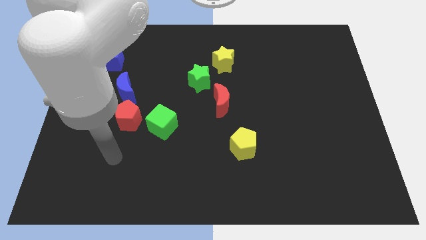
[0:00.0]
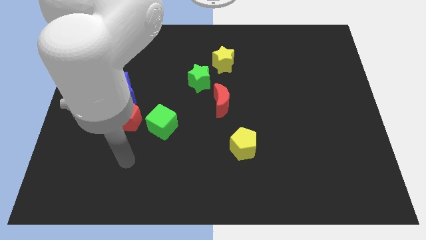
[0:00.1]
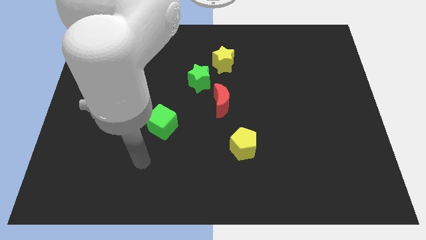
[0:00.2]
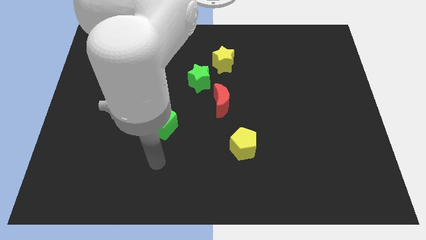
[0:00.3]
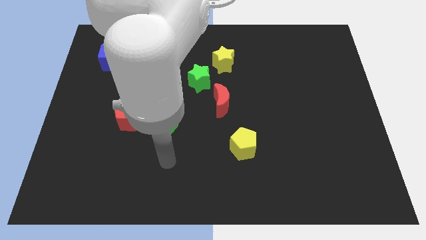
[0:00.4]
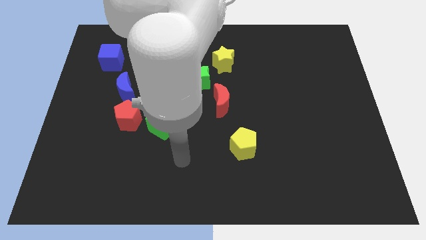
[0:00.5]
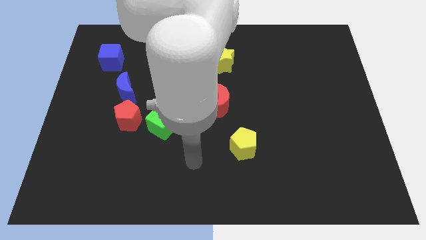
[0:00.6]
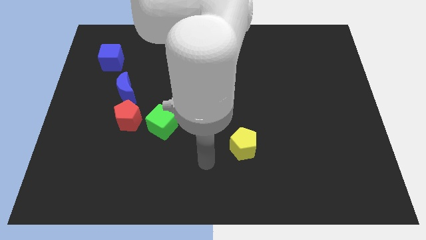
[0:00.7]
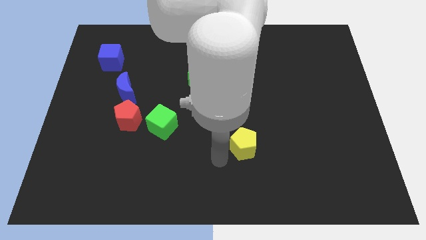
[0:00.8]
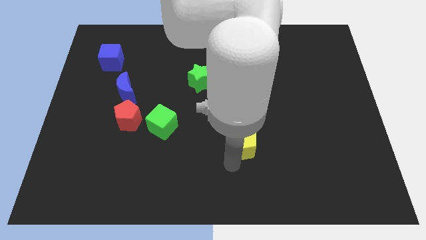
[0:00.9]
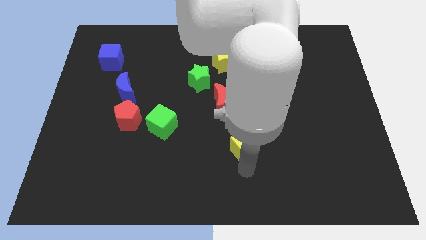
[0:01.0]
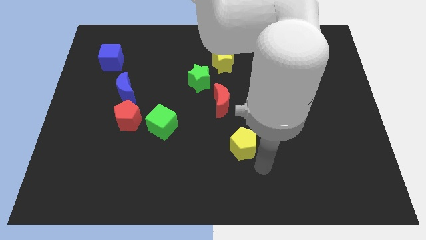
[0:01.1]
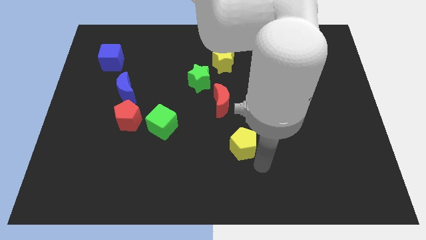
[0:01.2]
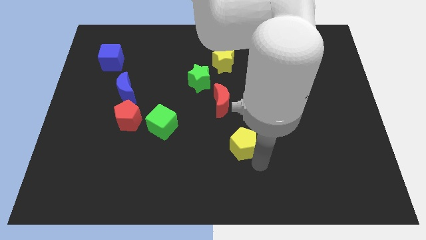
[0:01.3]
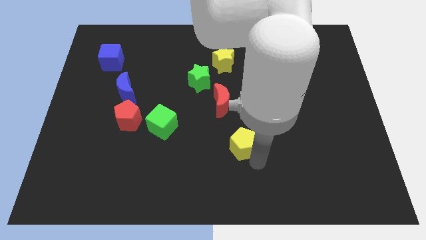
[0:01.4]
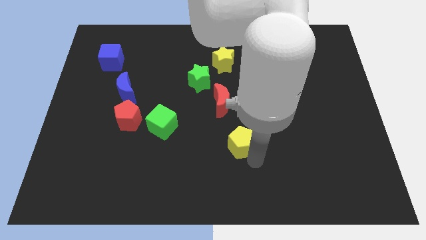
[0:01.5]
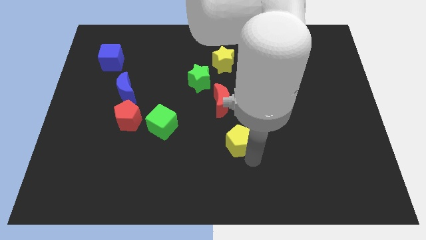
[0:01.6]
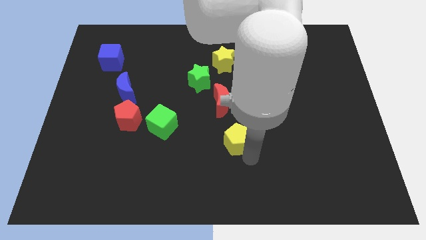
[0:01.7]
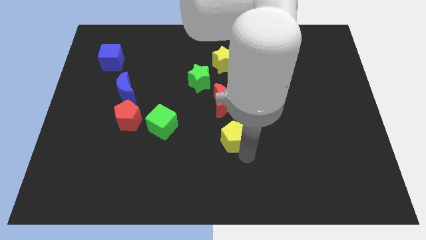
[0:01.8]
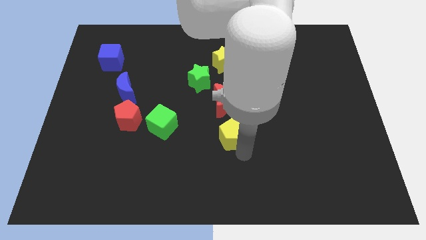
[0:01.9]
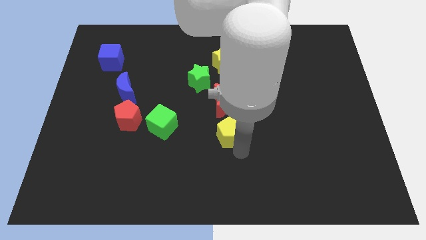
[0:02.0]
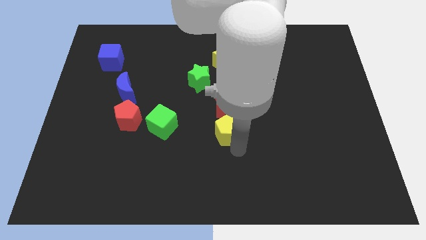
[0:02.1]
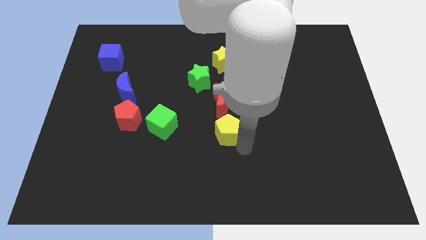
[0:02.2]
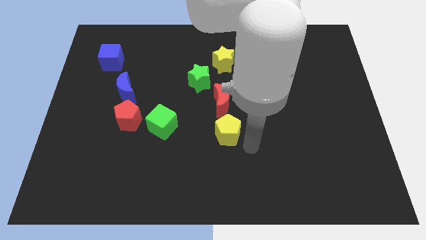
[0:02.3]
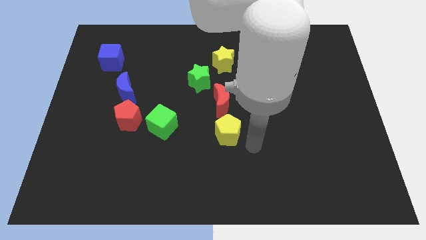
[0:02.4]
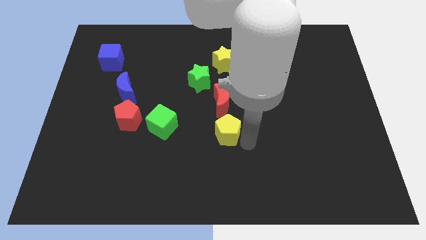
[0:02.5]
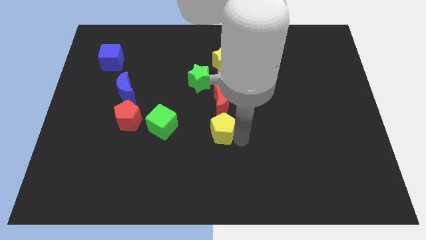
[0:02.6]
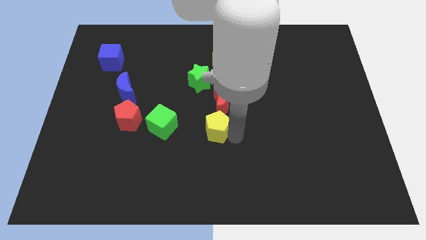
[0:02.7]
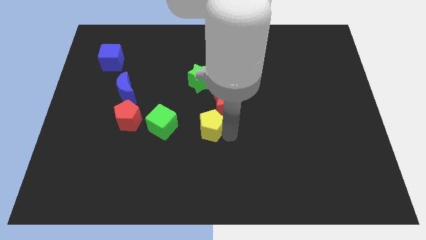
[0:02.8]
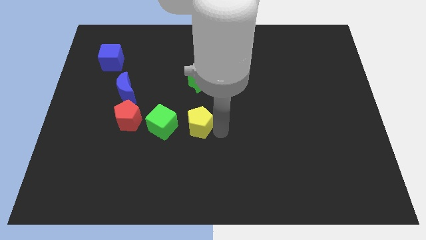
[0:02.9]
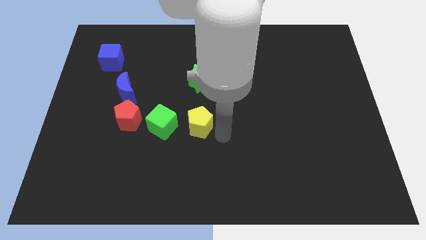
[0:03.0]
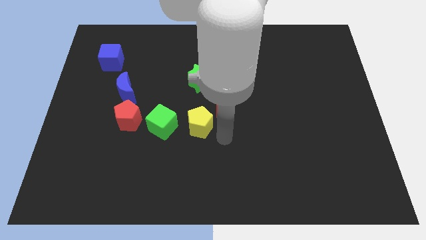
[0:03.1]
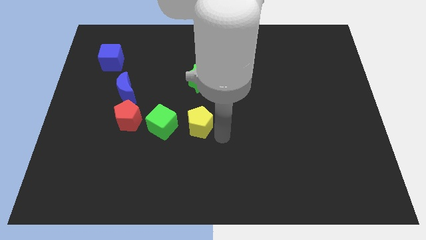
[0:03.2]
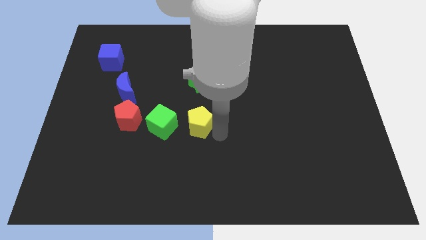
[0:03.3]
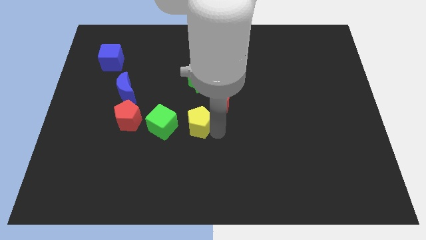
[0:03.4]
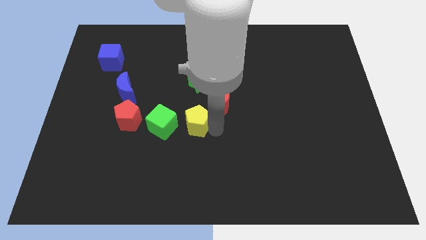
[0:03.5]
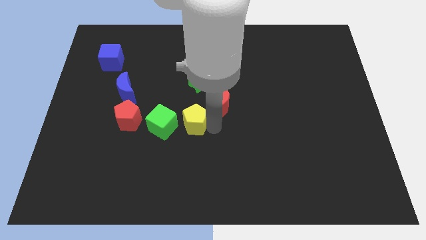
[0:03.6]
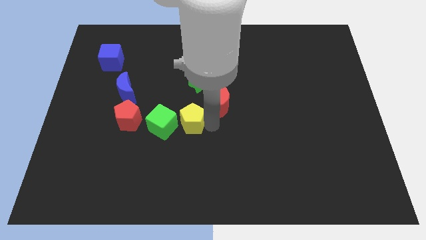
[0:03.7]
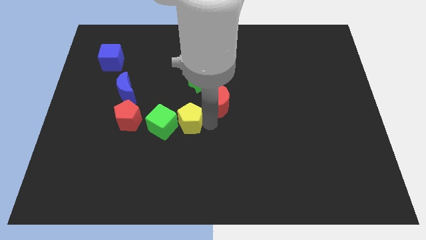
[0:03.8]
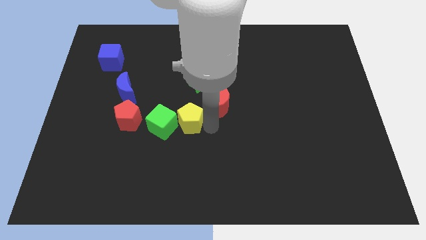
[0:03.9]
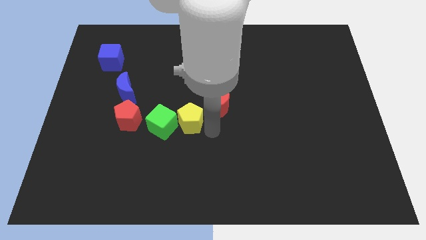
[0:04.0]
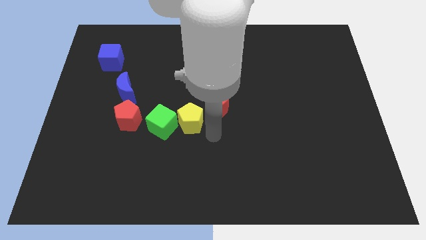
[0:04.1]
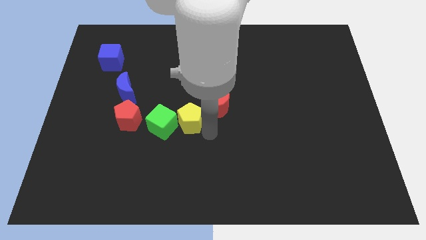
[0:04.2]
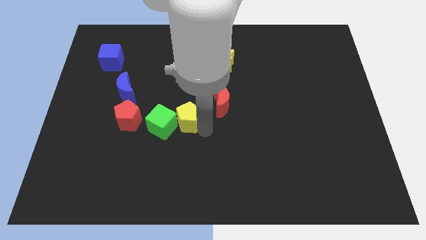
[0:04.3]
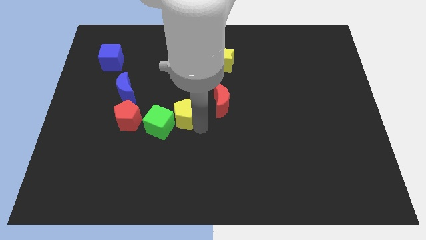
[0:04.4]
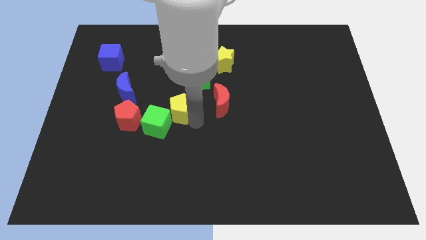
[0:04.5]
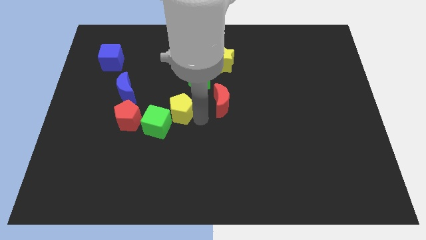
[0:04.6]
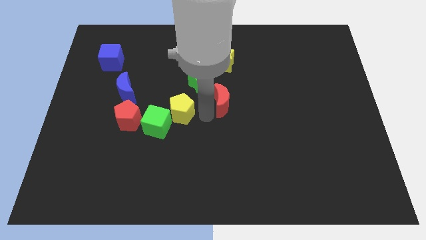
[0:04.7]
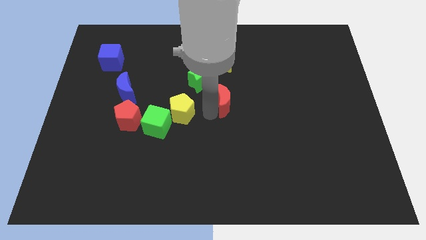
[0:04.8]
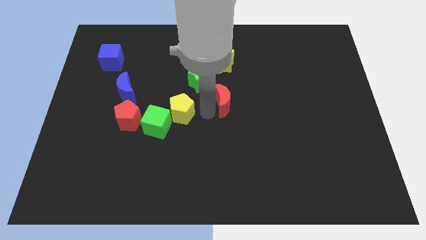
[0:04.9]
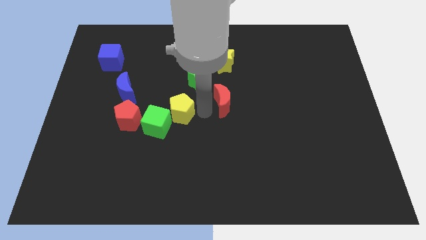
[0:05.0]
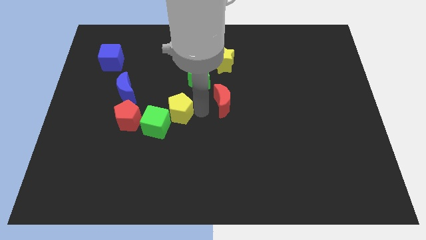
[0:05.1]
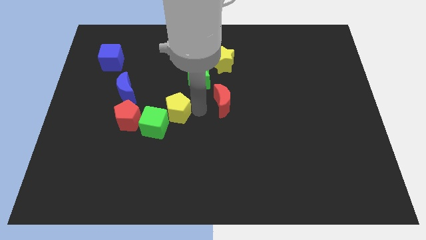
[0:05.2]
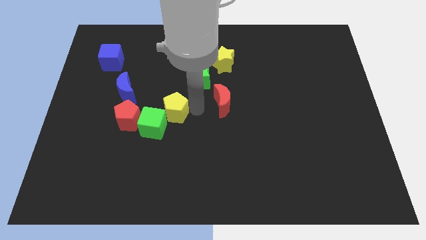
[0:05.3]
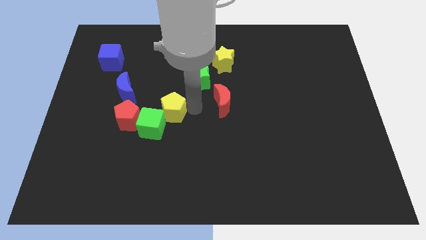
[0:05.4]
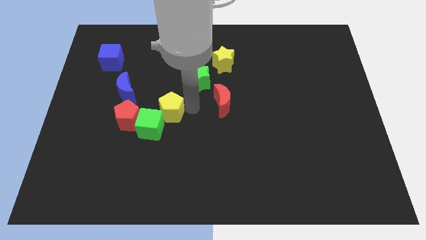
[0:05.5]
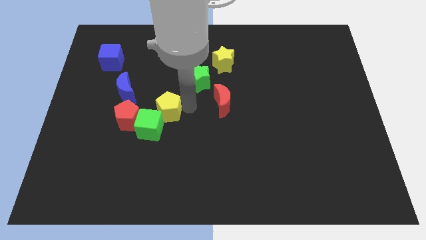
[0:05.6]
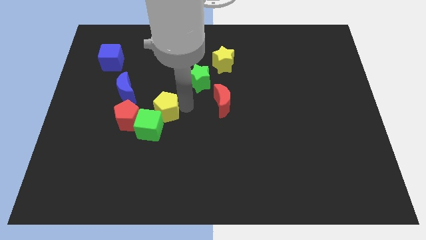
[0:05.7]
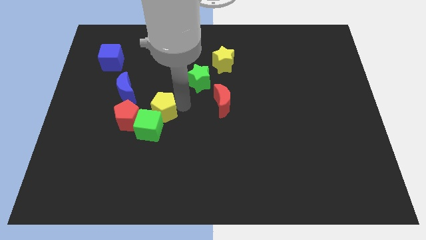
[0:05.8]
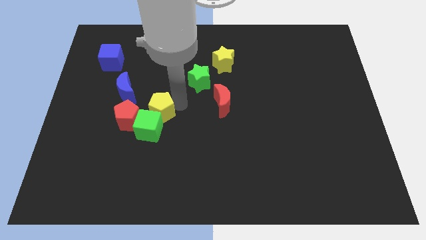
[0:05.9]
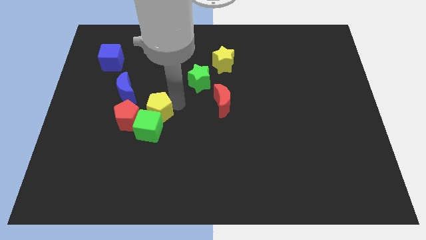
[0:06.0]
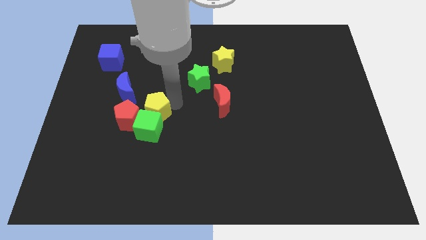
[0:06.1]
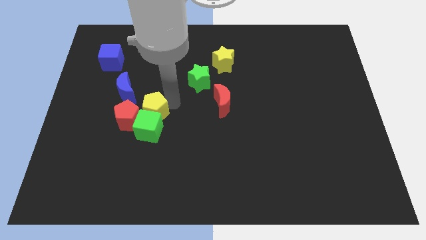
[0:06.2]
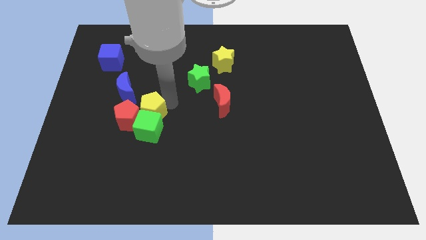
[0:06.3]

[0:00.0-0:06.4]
put the yellow pentagon close to the red pentagon

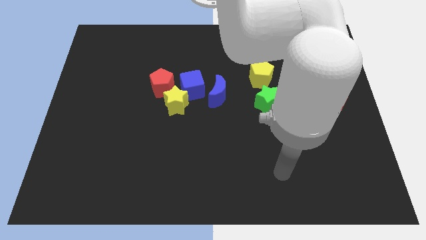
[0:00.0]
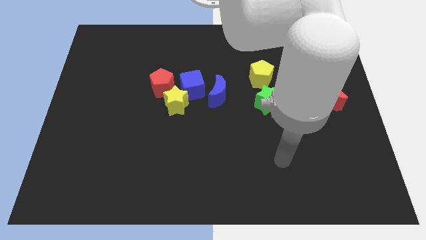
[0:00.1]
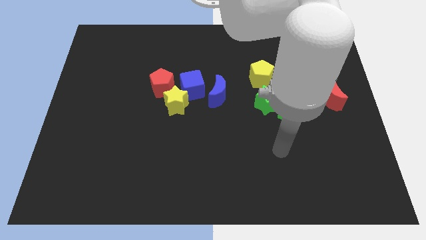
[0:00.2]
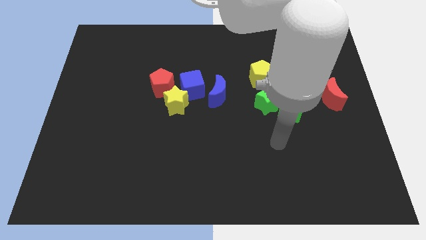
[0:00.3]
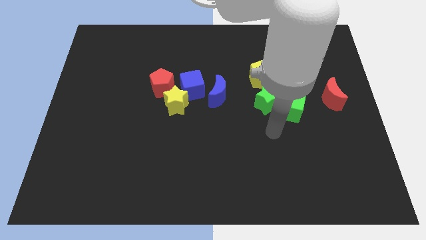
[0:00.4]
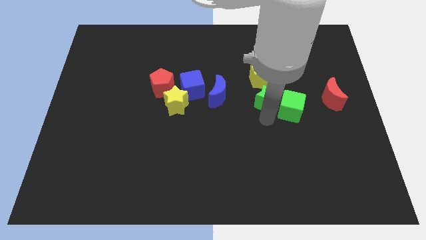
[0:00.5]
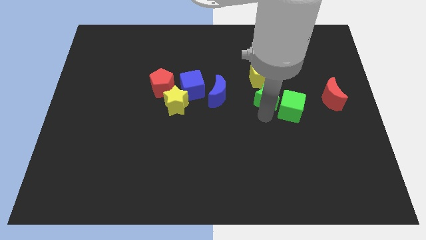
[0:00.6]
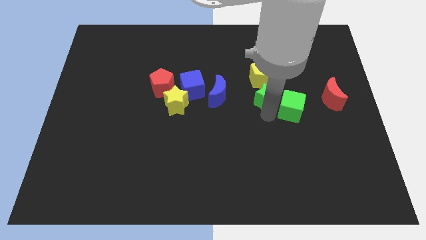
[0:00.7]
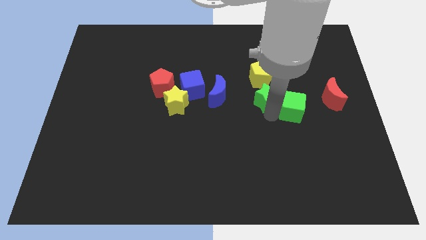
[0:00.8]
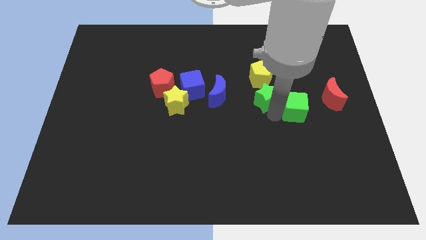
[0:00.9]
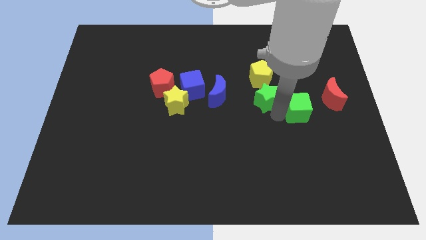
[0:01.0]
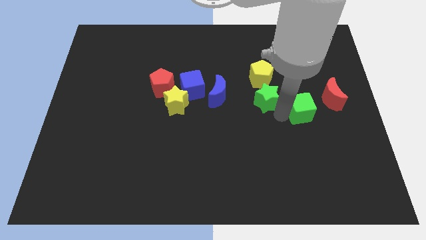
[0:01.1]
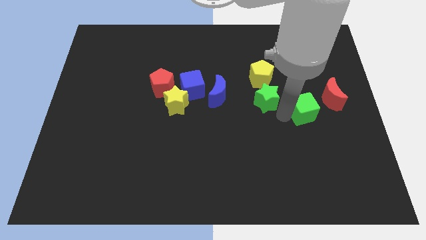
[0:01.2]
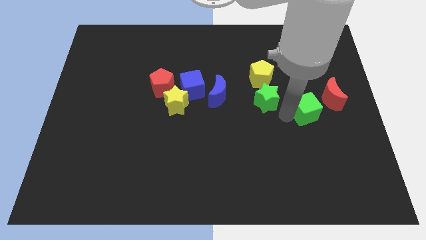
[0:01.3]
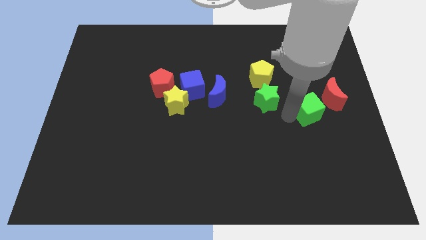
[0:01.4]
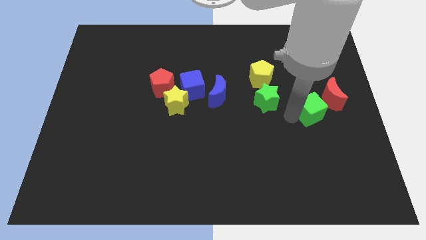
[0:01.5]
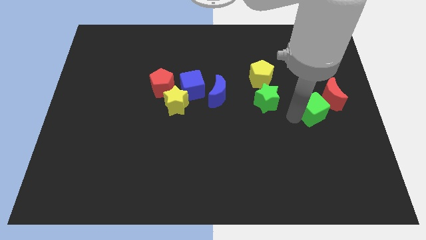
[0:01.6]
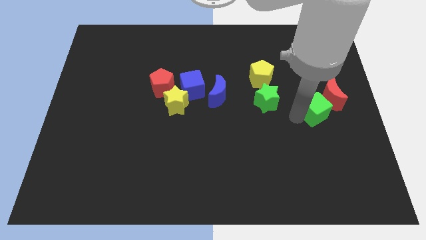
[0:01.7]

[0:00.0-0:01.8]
push the green cube next to the red moon
